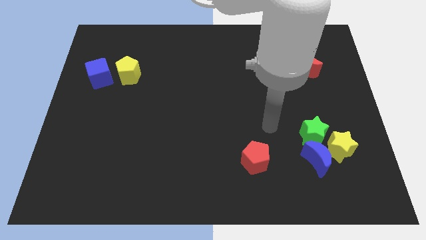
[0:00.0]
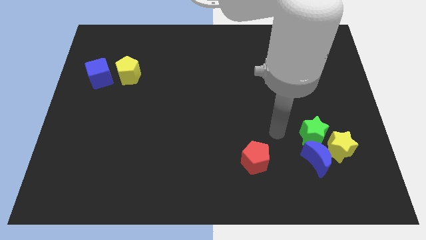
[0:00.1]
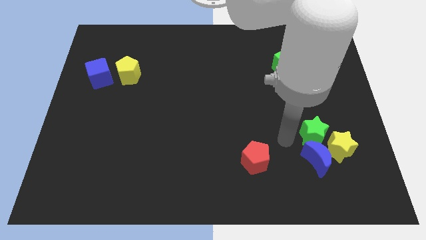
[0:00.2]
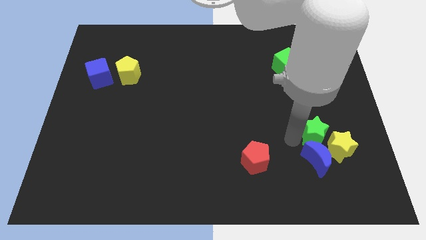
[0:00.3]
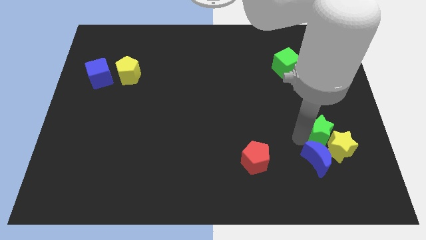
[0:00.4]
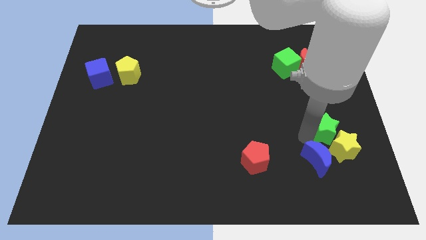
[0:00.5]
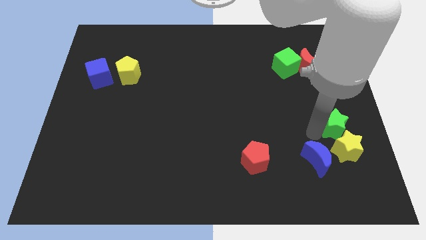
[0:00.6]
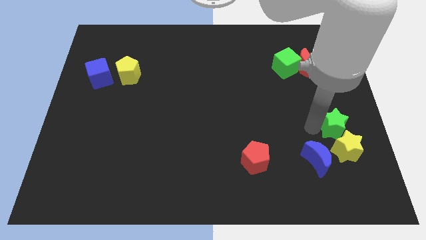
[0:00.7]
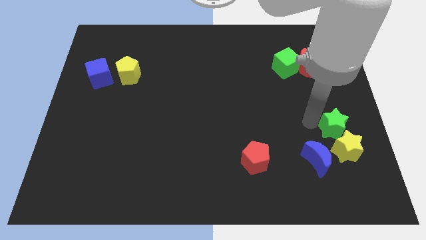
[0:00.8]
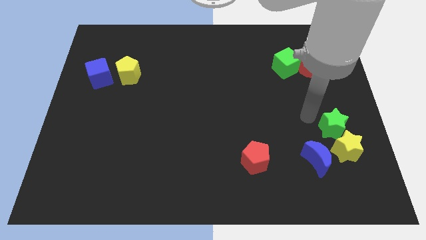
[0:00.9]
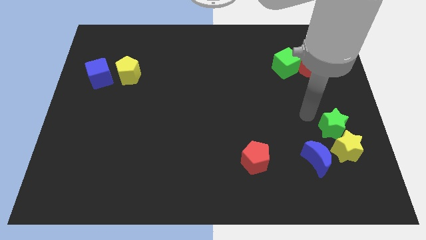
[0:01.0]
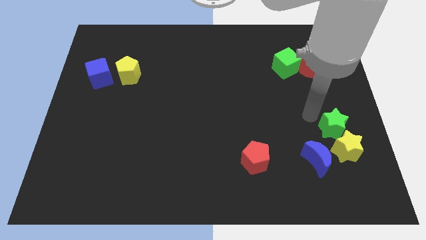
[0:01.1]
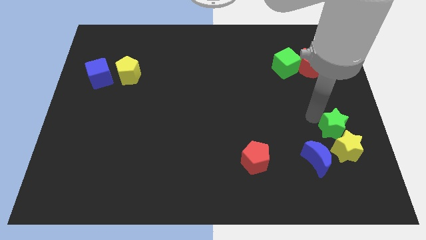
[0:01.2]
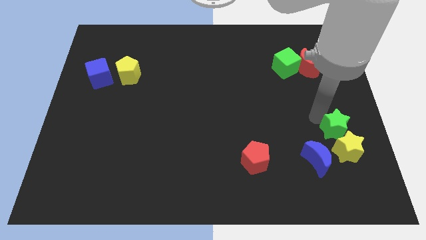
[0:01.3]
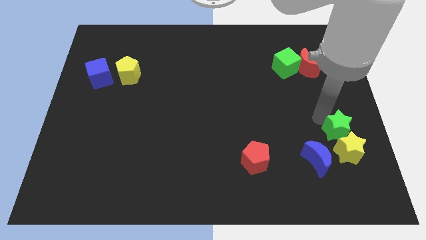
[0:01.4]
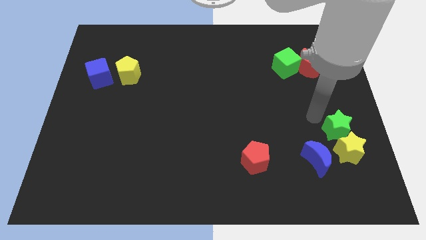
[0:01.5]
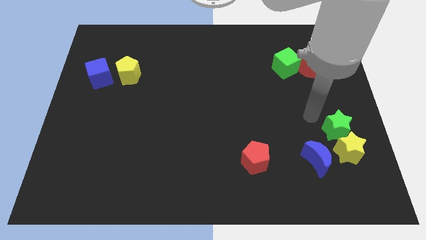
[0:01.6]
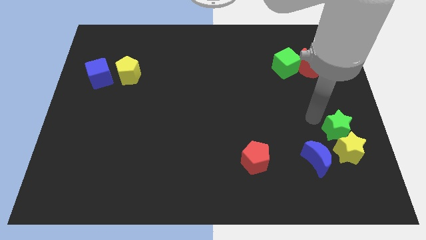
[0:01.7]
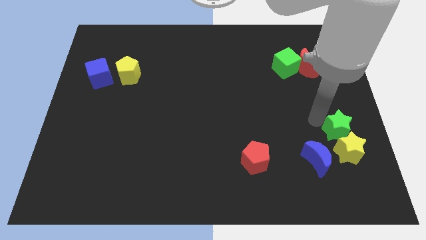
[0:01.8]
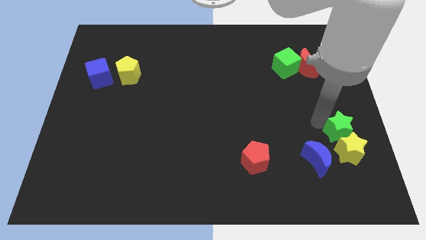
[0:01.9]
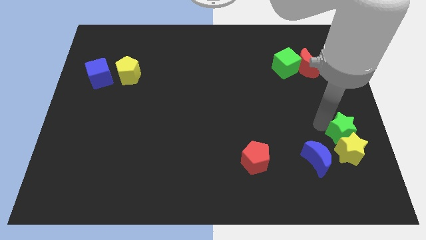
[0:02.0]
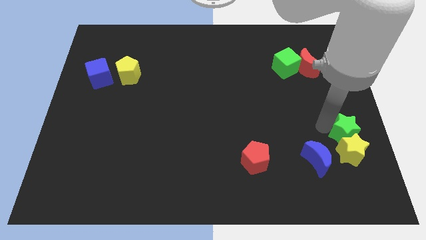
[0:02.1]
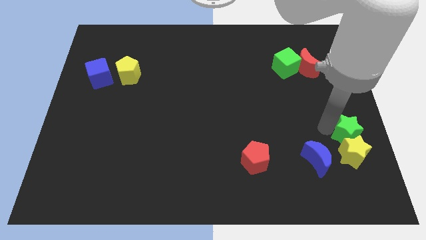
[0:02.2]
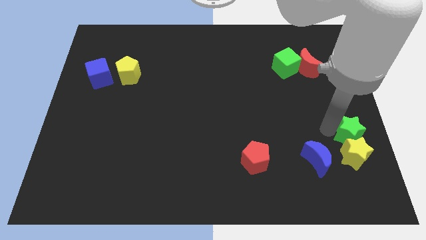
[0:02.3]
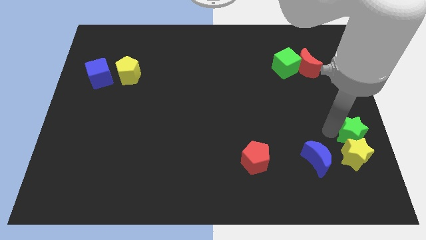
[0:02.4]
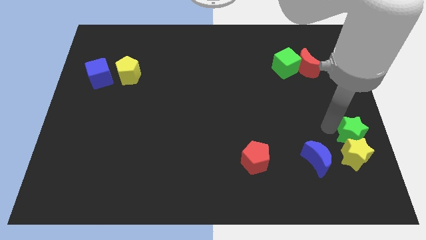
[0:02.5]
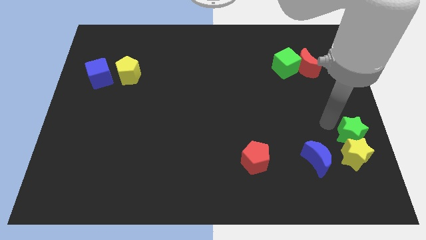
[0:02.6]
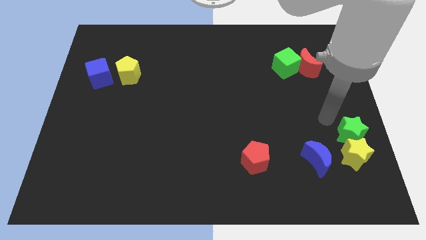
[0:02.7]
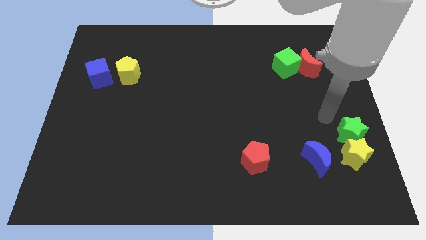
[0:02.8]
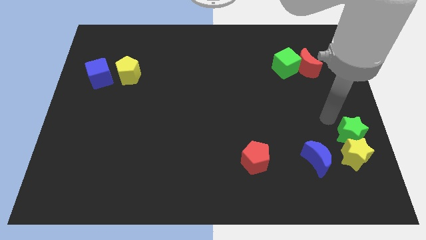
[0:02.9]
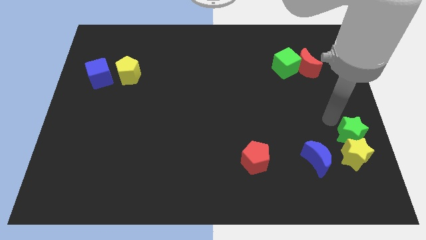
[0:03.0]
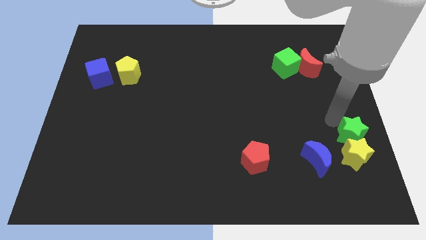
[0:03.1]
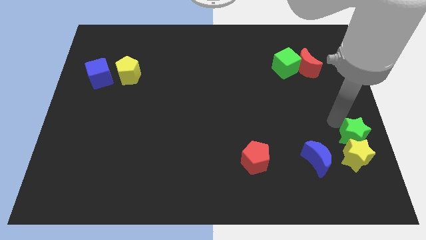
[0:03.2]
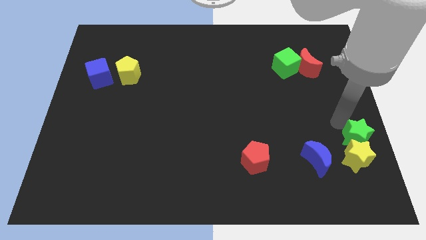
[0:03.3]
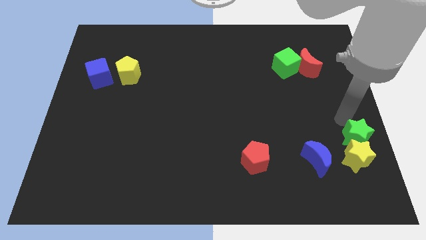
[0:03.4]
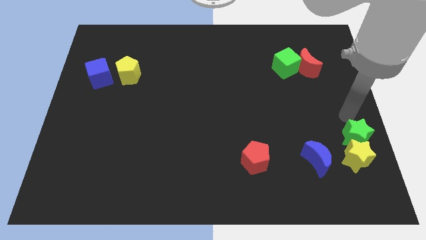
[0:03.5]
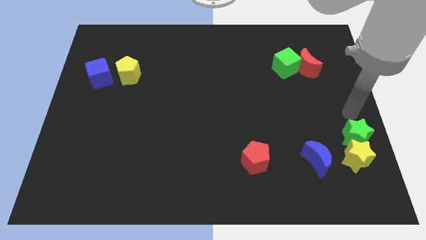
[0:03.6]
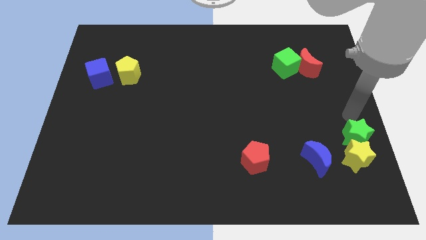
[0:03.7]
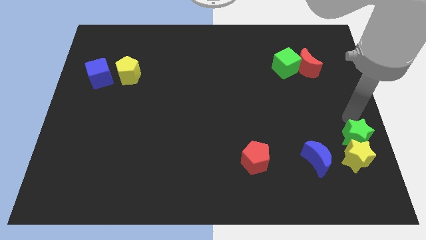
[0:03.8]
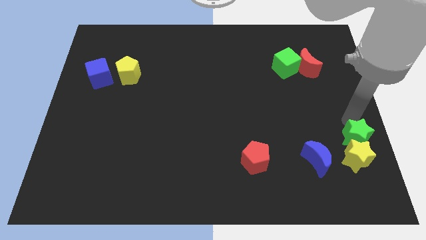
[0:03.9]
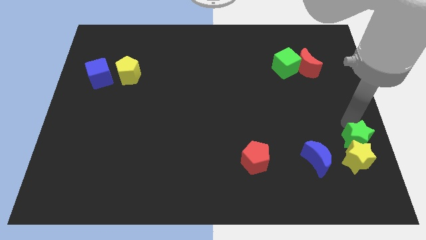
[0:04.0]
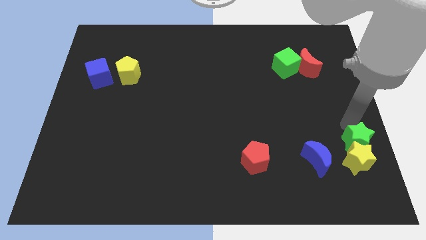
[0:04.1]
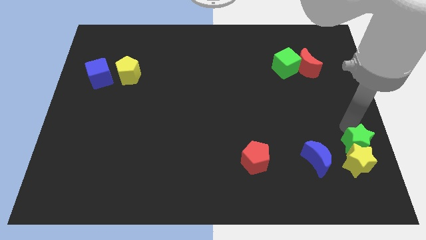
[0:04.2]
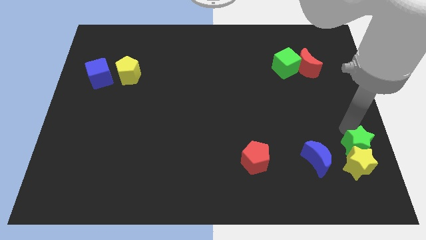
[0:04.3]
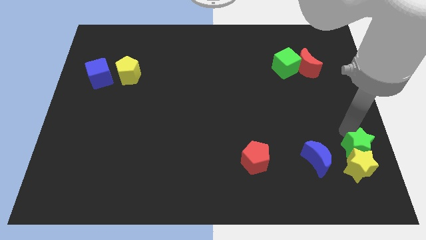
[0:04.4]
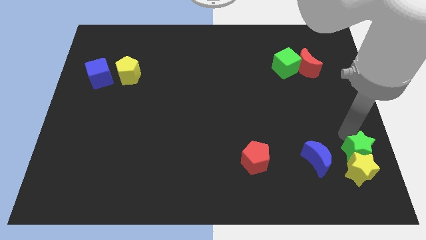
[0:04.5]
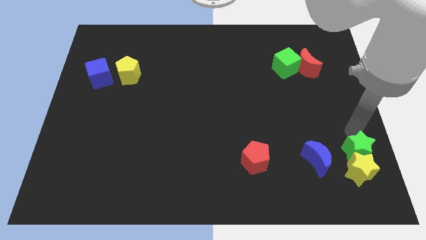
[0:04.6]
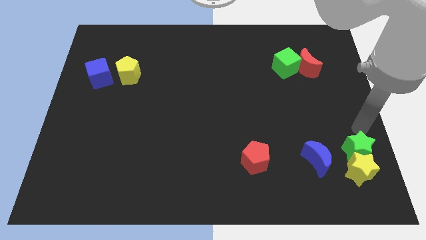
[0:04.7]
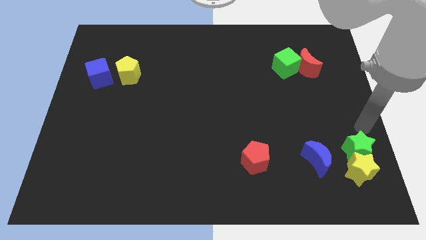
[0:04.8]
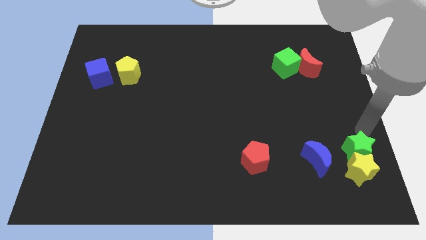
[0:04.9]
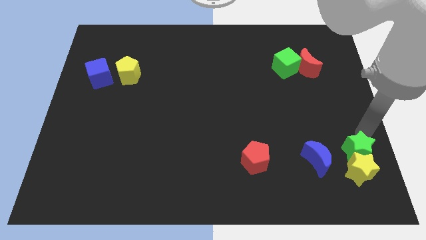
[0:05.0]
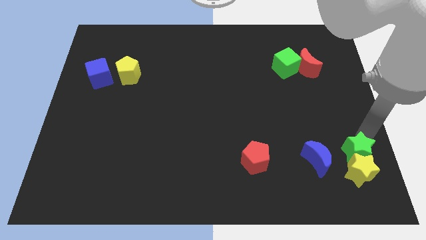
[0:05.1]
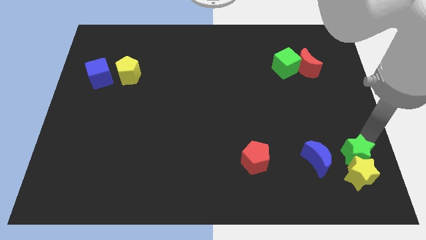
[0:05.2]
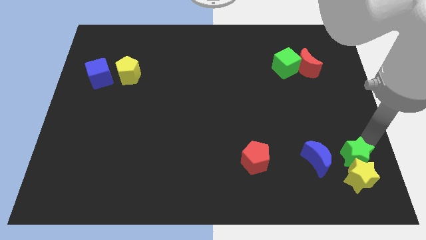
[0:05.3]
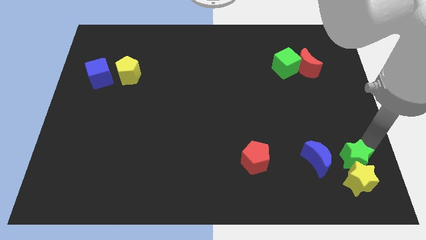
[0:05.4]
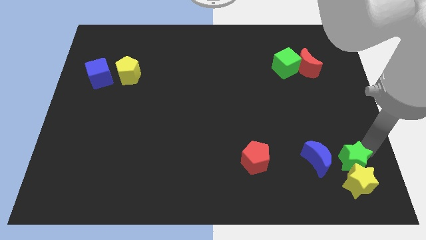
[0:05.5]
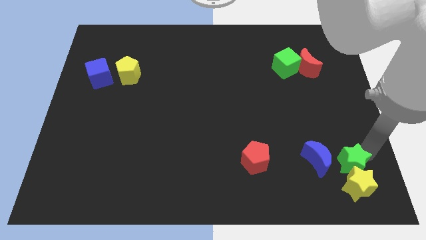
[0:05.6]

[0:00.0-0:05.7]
put the green star to the bottom right side of the blue moon

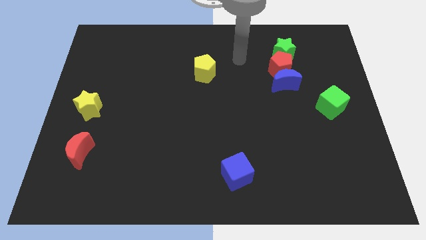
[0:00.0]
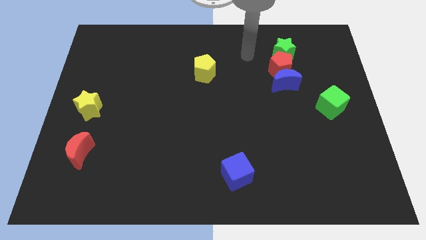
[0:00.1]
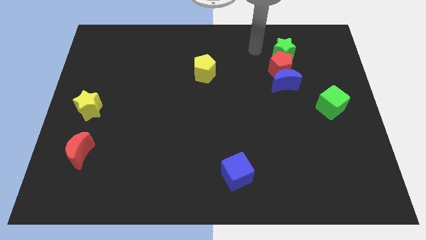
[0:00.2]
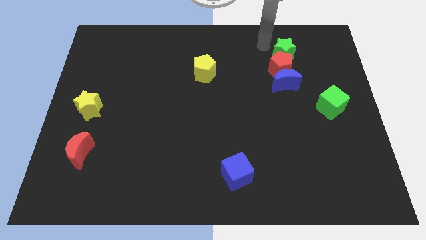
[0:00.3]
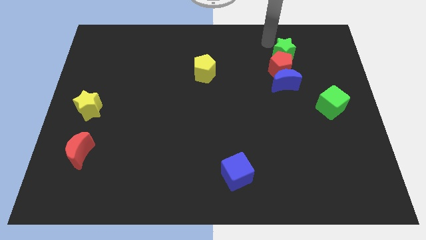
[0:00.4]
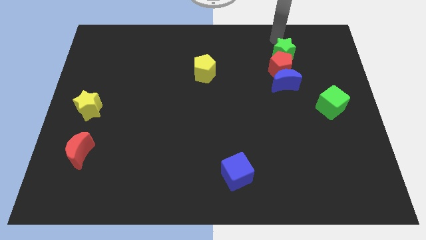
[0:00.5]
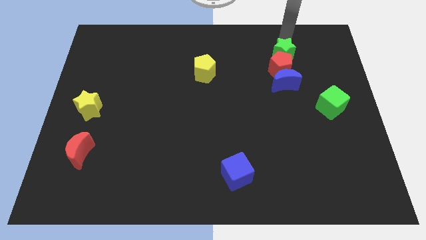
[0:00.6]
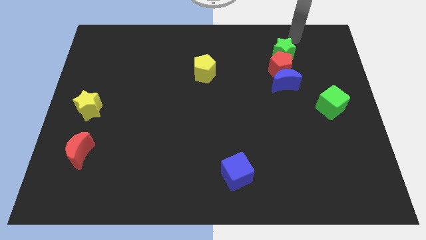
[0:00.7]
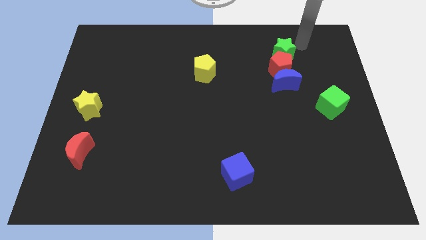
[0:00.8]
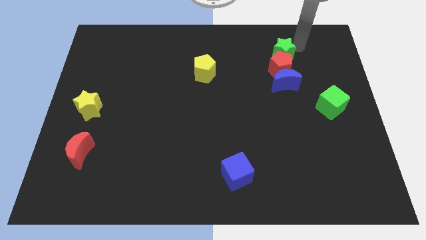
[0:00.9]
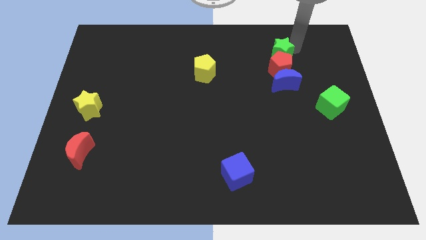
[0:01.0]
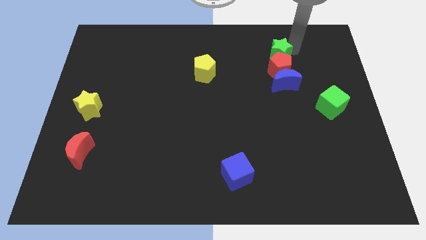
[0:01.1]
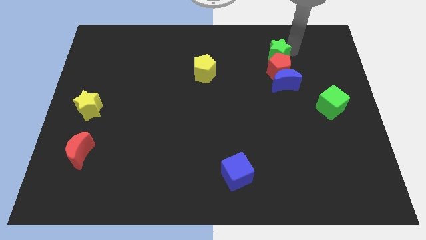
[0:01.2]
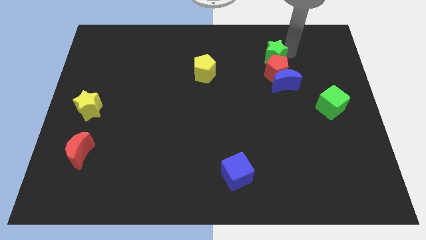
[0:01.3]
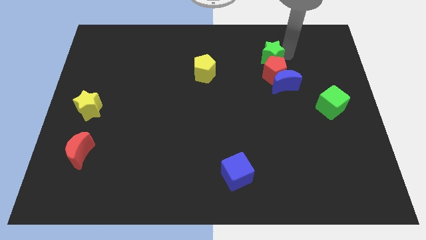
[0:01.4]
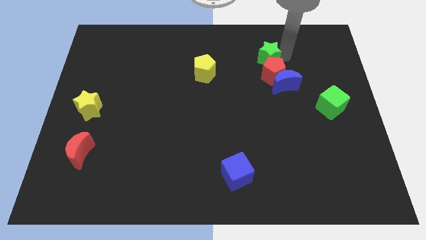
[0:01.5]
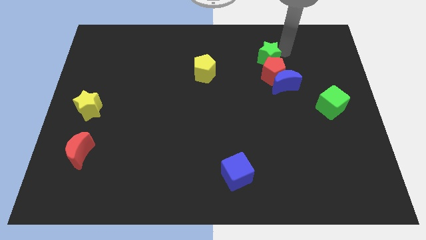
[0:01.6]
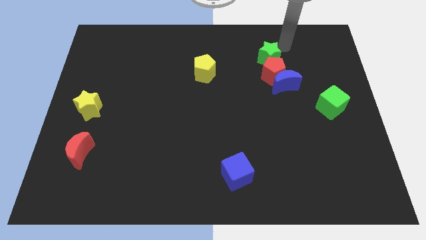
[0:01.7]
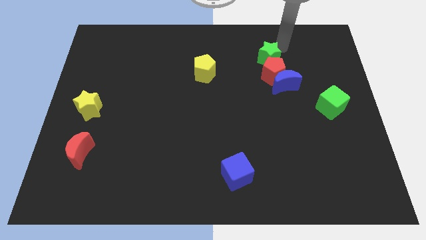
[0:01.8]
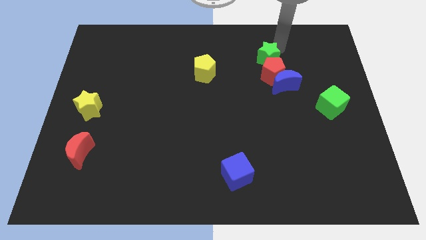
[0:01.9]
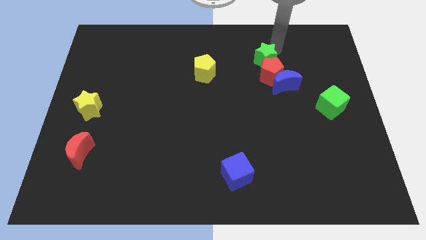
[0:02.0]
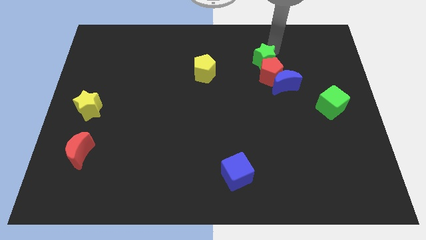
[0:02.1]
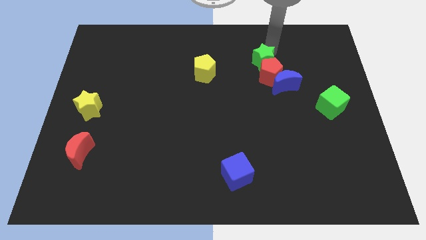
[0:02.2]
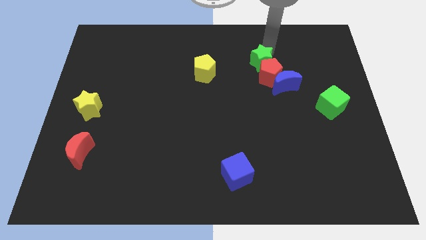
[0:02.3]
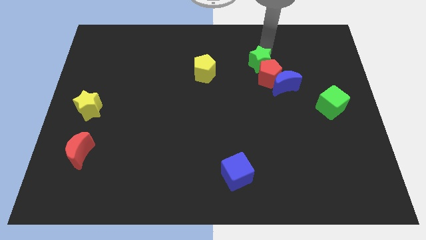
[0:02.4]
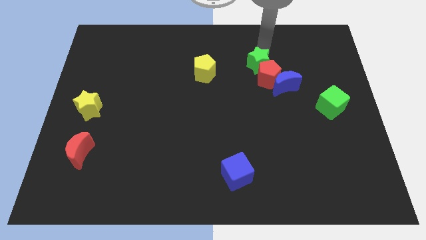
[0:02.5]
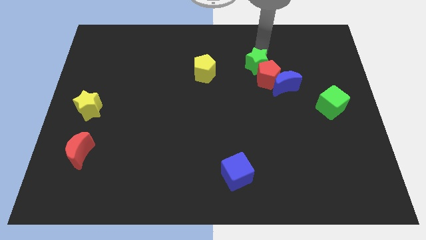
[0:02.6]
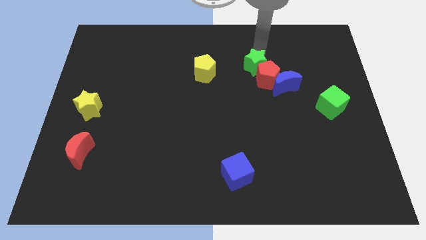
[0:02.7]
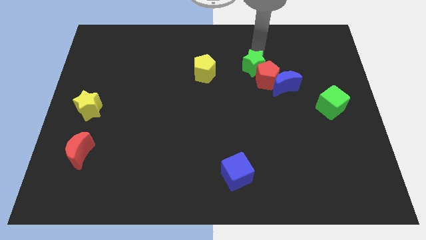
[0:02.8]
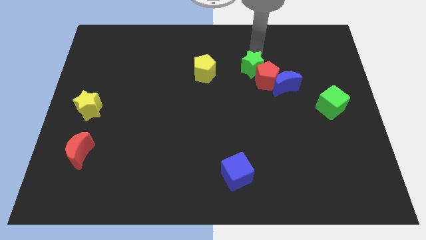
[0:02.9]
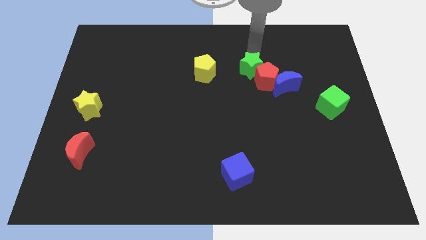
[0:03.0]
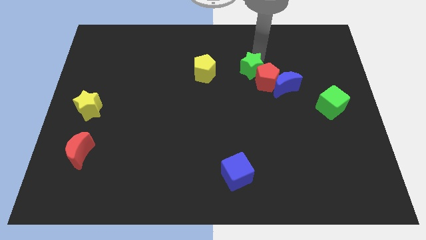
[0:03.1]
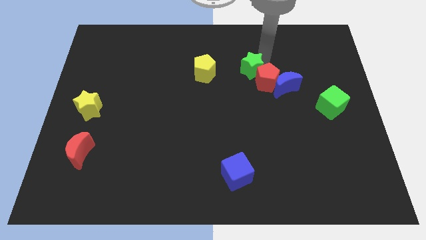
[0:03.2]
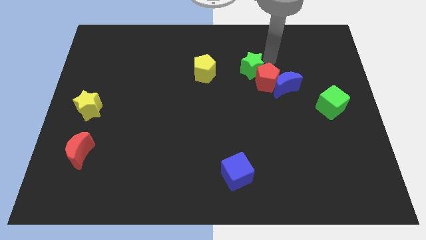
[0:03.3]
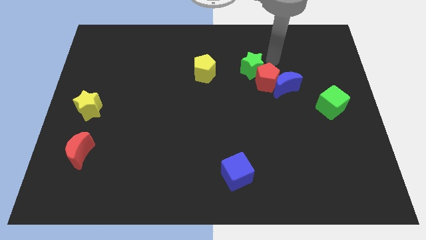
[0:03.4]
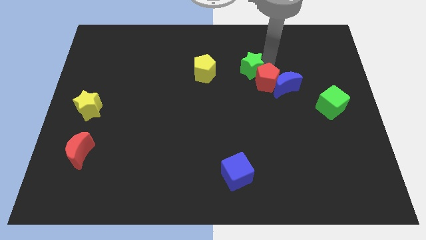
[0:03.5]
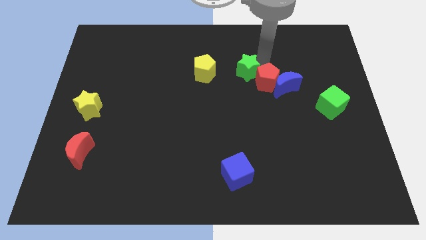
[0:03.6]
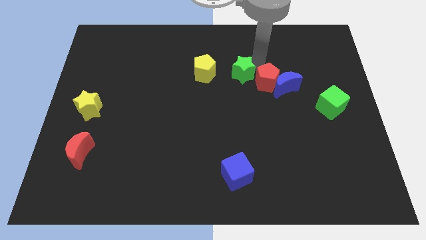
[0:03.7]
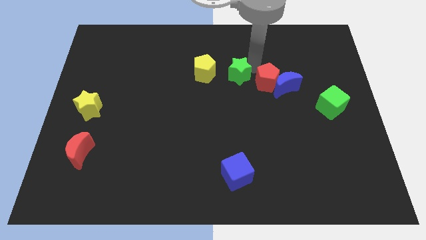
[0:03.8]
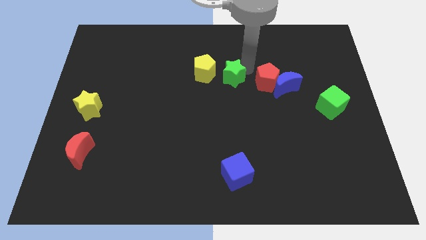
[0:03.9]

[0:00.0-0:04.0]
push the green star diagonally down and to the right of the yellow pentagon
